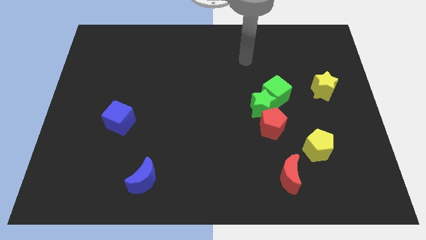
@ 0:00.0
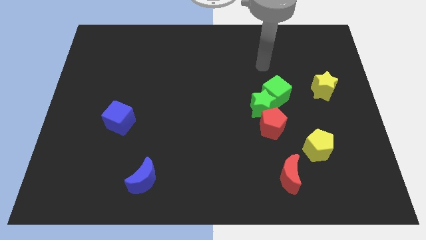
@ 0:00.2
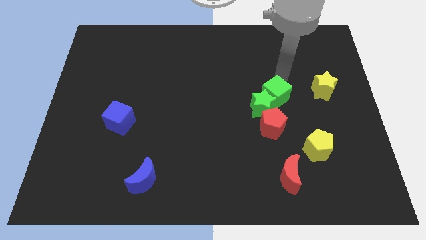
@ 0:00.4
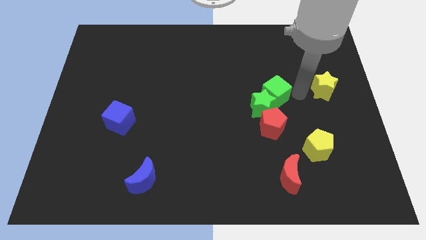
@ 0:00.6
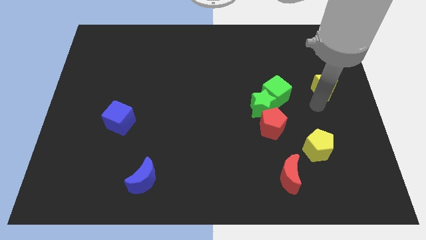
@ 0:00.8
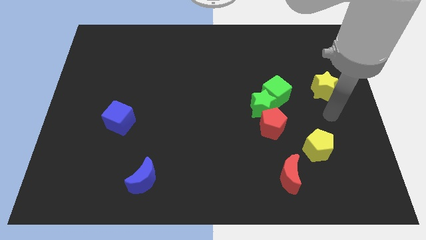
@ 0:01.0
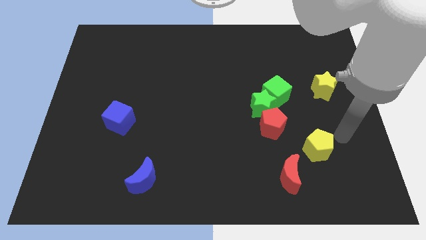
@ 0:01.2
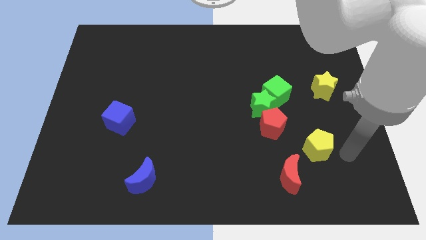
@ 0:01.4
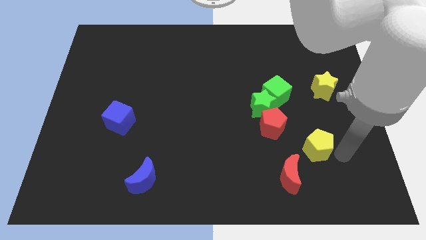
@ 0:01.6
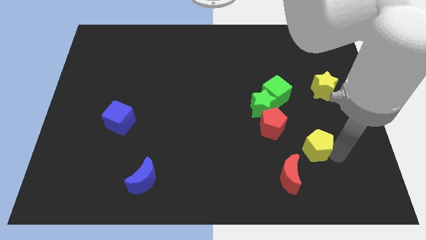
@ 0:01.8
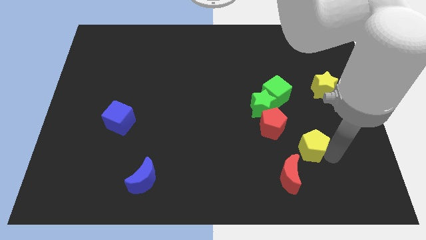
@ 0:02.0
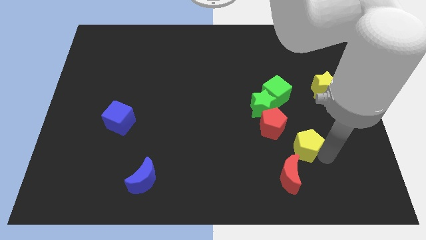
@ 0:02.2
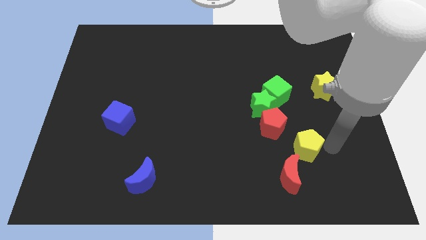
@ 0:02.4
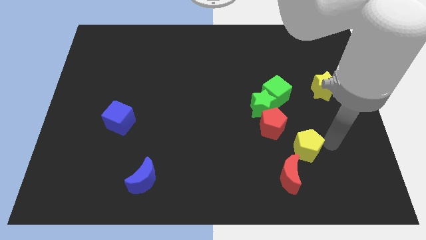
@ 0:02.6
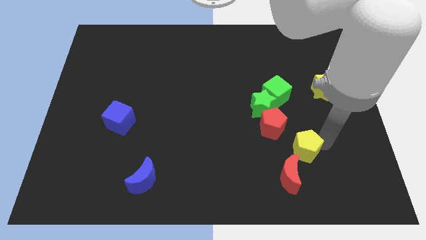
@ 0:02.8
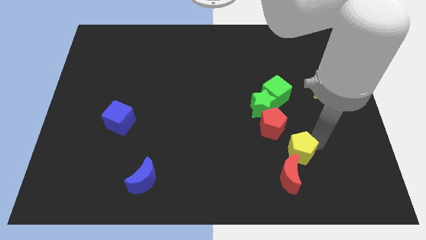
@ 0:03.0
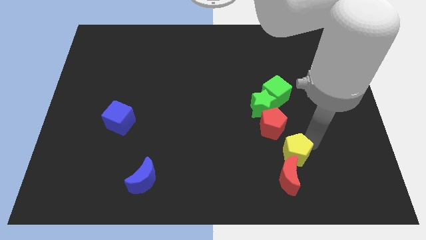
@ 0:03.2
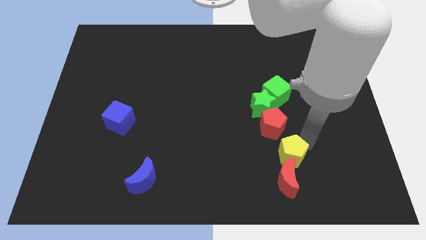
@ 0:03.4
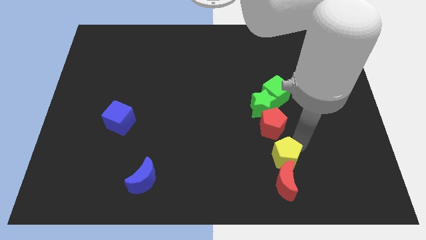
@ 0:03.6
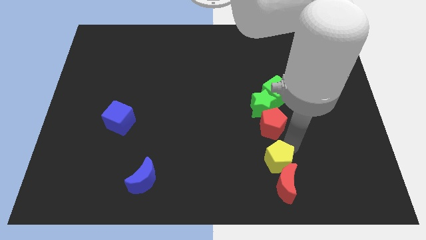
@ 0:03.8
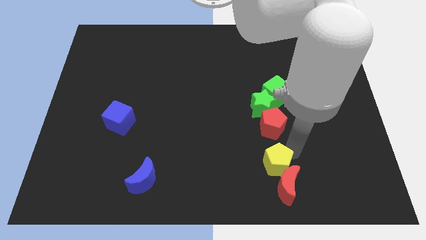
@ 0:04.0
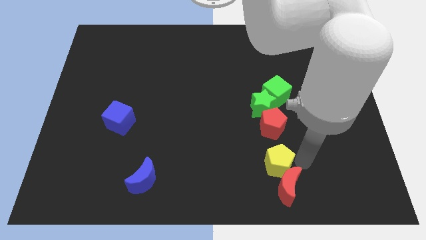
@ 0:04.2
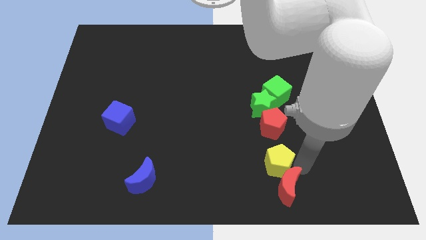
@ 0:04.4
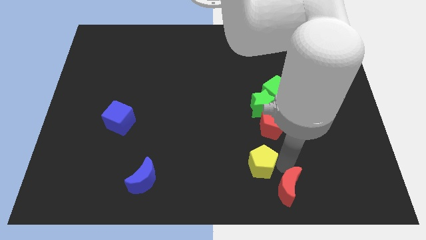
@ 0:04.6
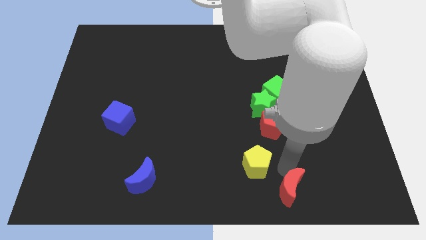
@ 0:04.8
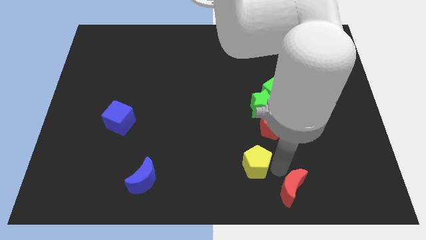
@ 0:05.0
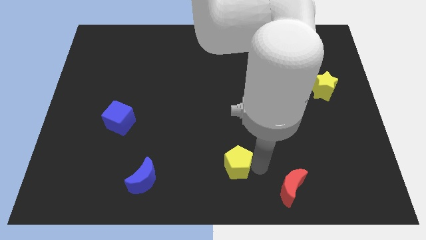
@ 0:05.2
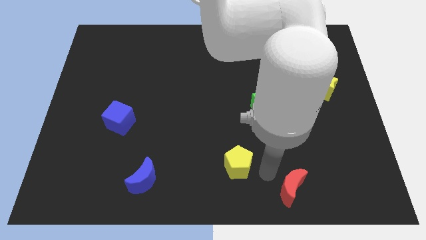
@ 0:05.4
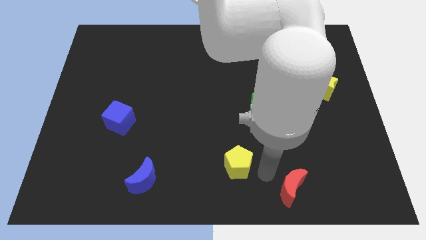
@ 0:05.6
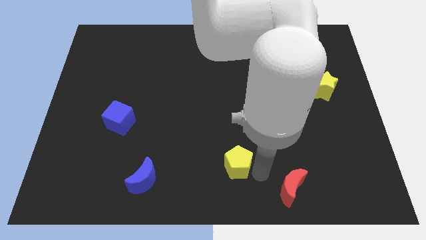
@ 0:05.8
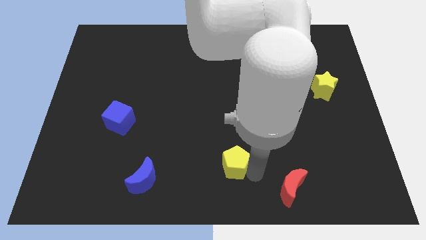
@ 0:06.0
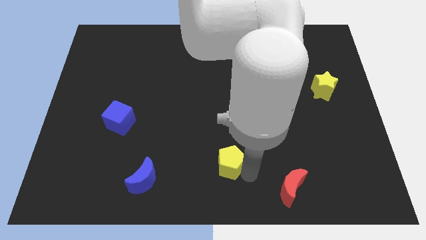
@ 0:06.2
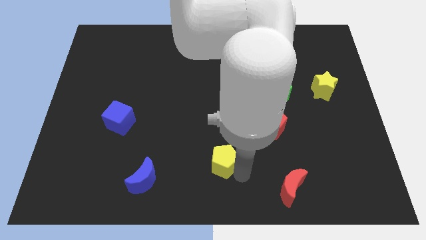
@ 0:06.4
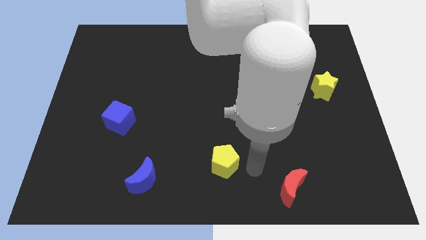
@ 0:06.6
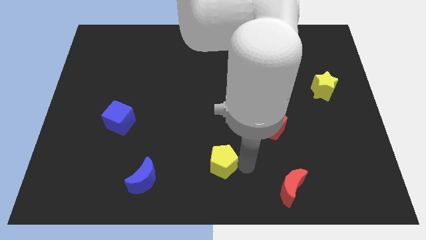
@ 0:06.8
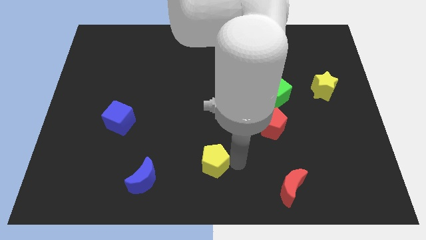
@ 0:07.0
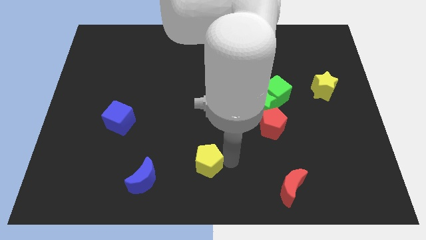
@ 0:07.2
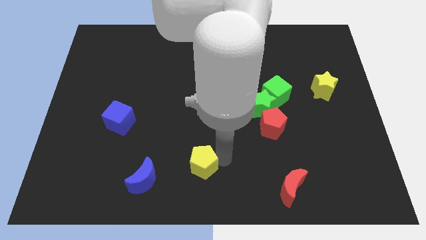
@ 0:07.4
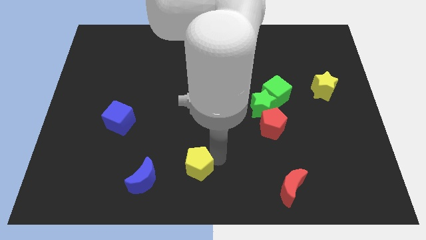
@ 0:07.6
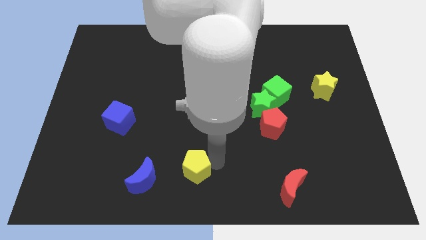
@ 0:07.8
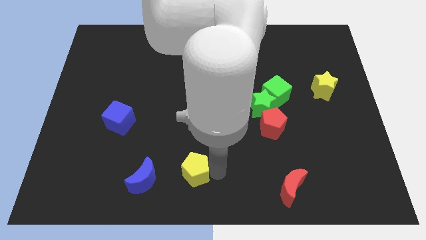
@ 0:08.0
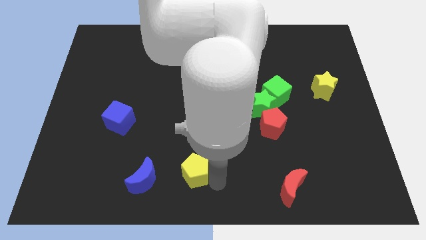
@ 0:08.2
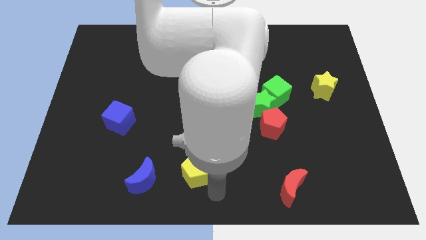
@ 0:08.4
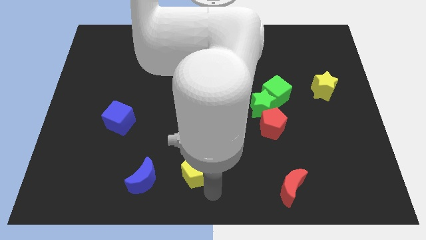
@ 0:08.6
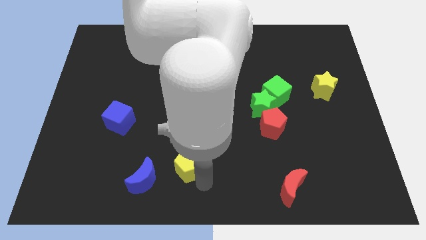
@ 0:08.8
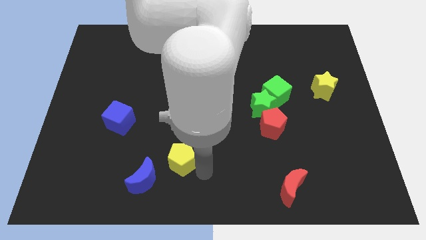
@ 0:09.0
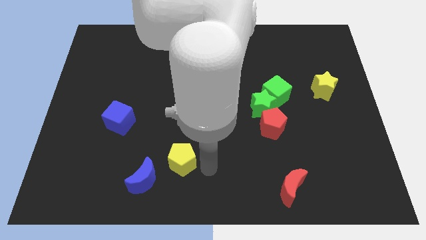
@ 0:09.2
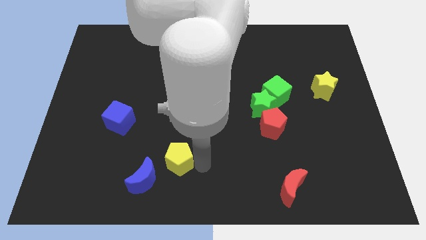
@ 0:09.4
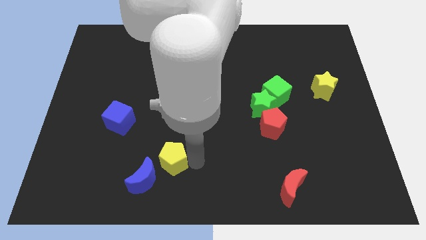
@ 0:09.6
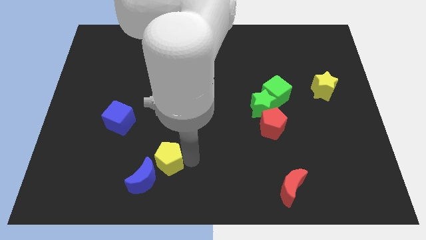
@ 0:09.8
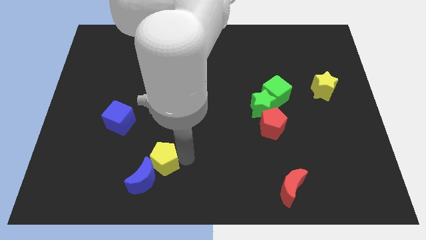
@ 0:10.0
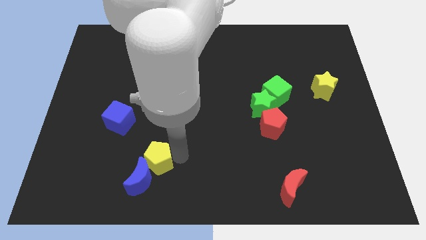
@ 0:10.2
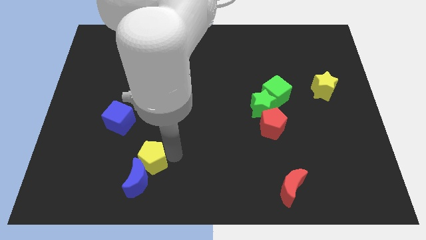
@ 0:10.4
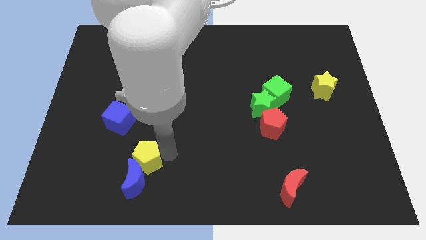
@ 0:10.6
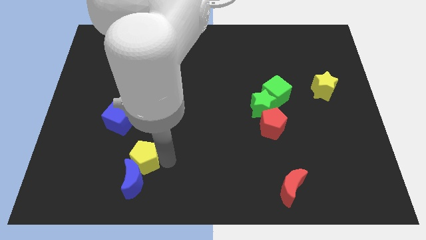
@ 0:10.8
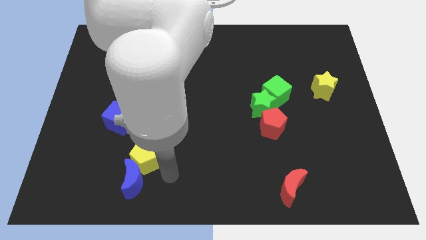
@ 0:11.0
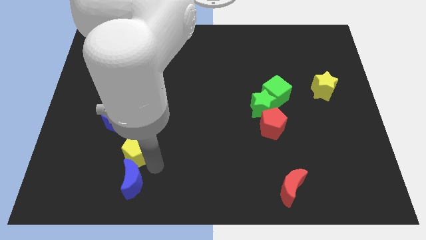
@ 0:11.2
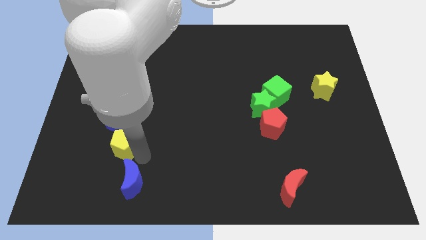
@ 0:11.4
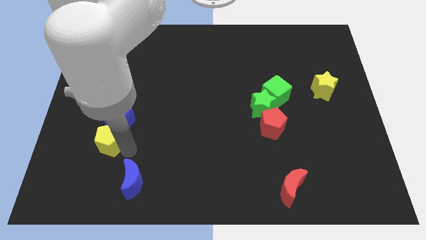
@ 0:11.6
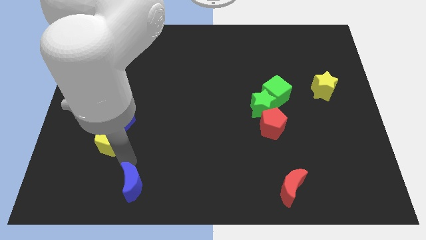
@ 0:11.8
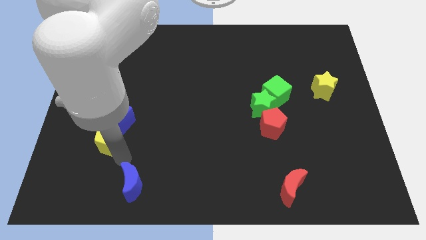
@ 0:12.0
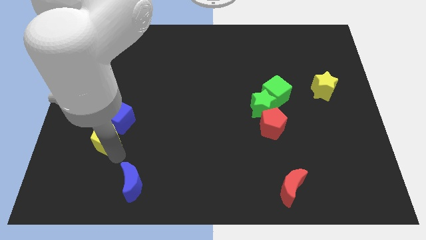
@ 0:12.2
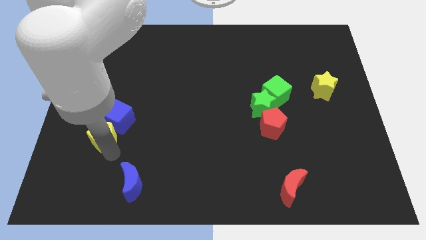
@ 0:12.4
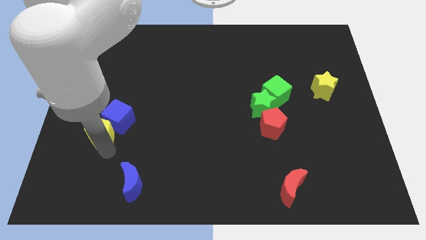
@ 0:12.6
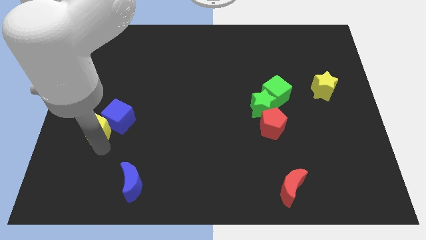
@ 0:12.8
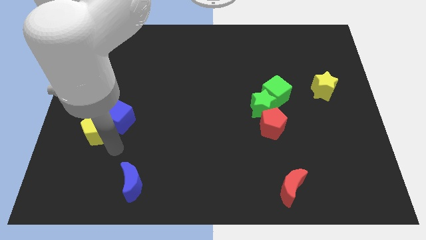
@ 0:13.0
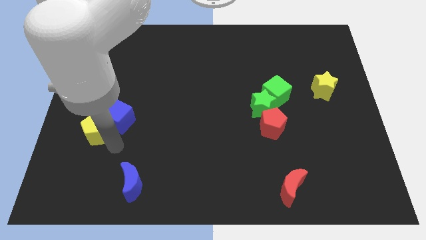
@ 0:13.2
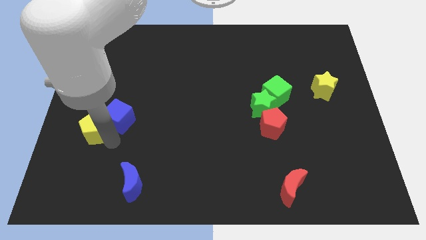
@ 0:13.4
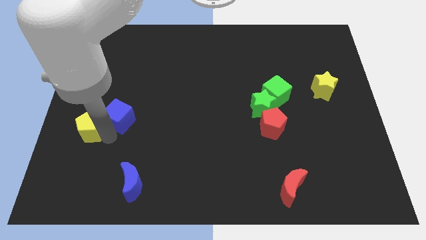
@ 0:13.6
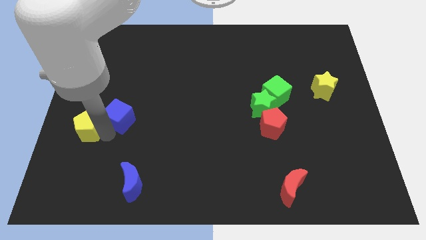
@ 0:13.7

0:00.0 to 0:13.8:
move the yellow pentagon to the center left
